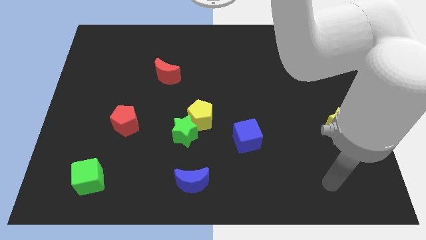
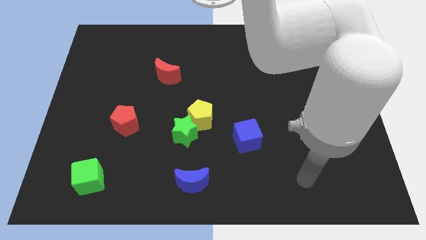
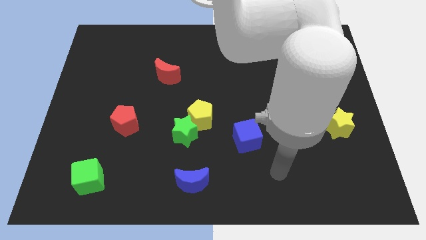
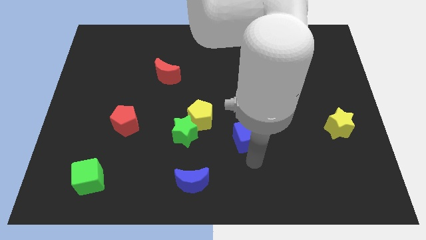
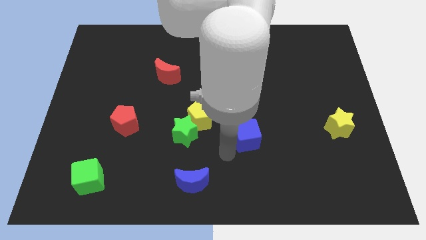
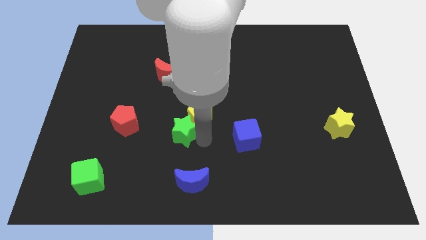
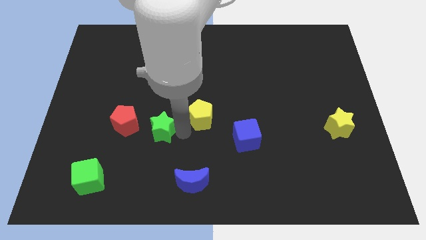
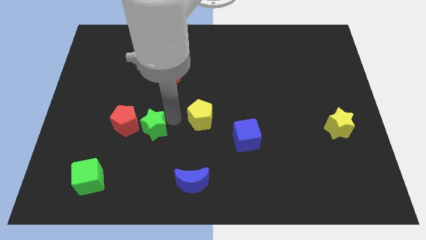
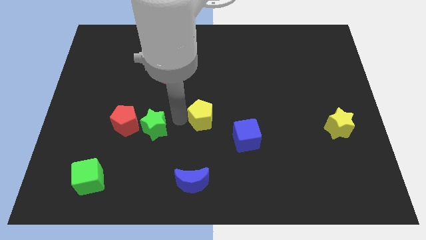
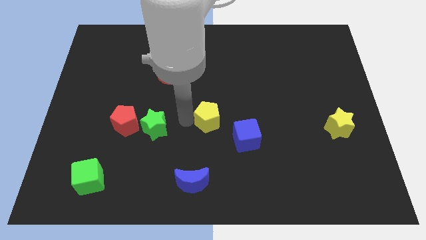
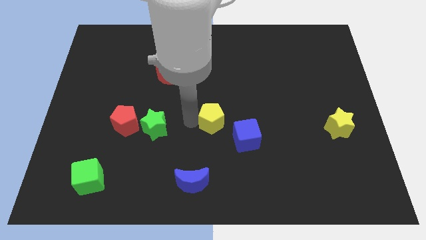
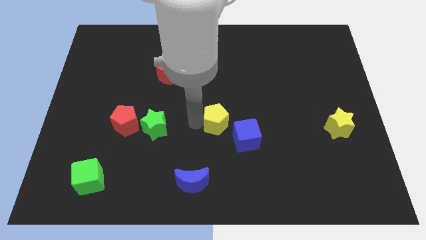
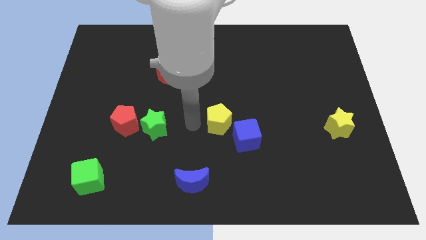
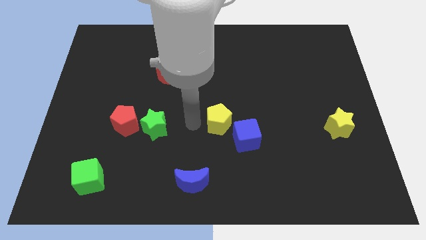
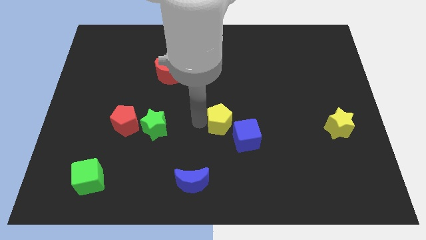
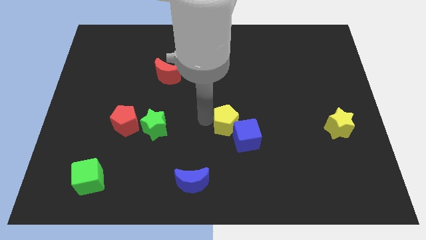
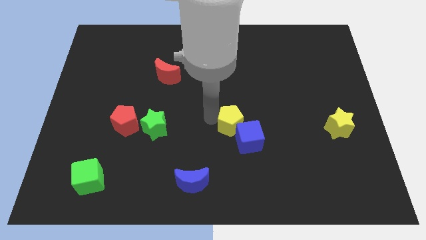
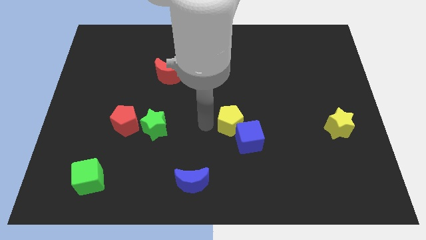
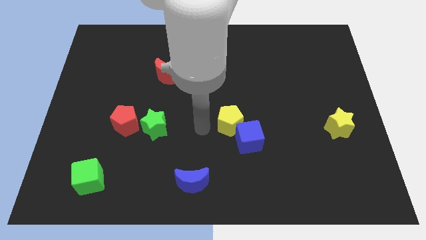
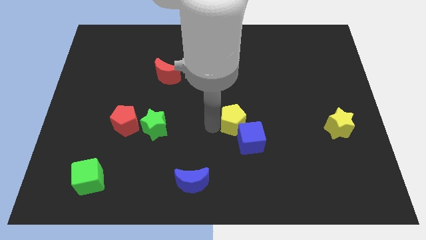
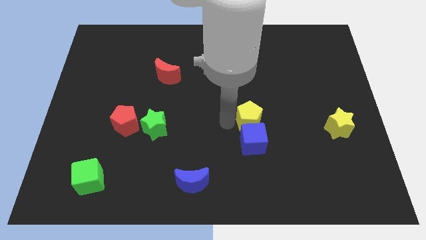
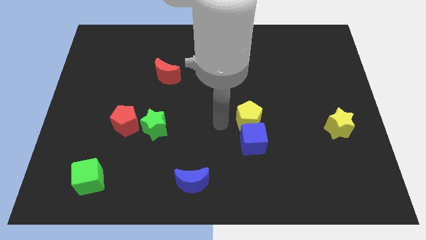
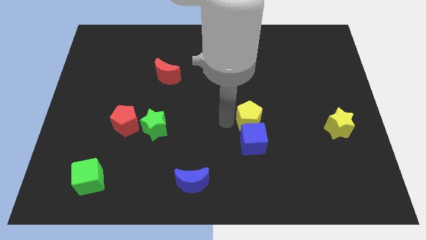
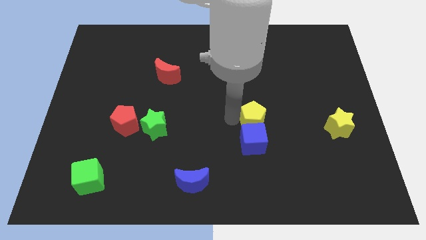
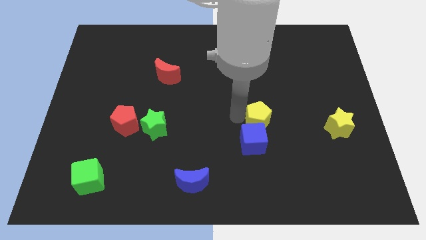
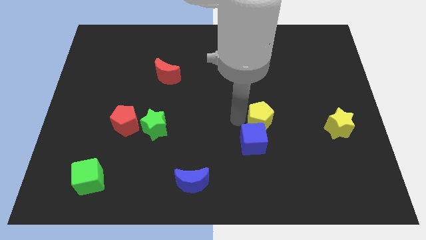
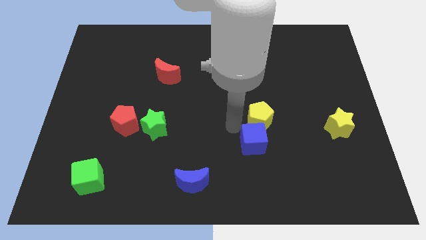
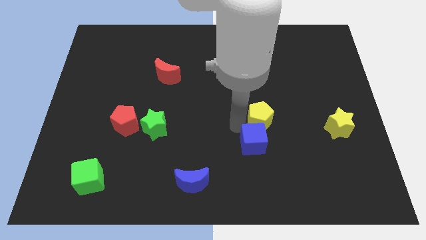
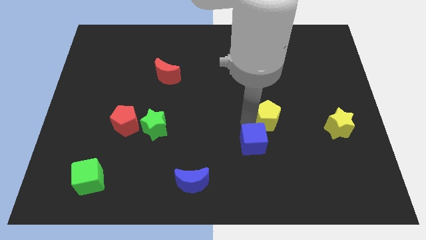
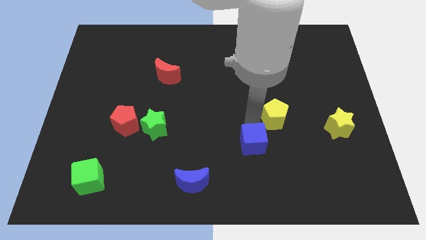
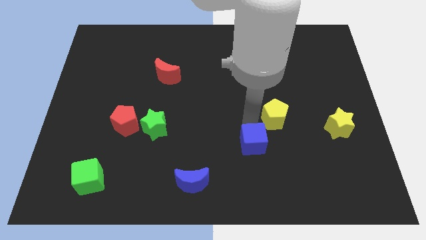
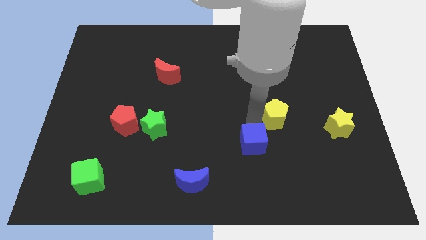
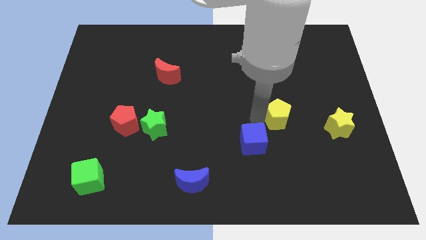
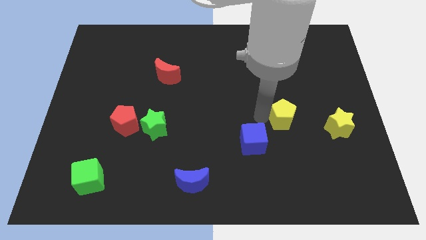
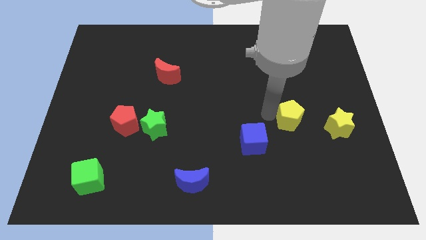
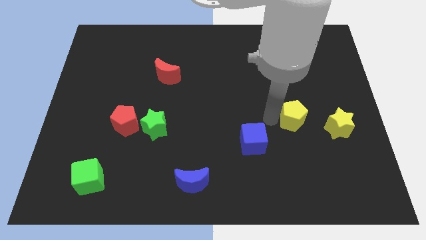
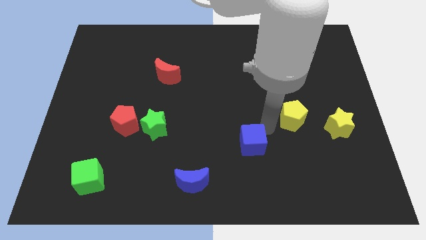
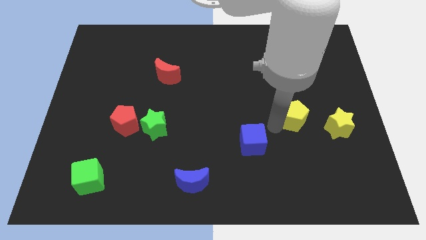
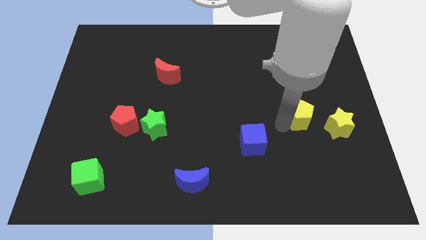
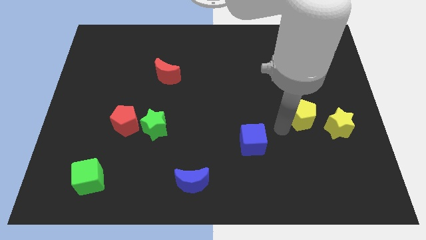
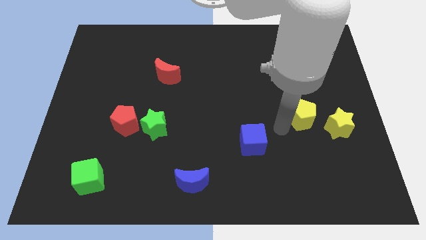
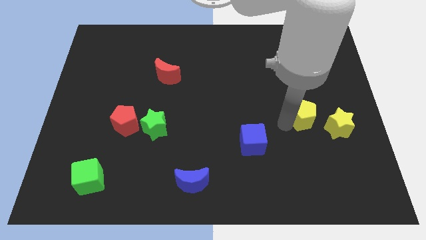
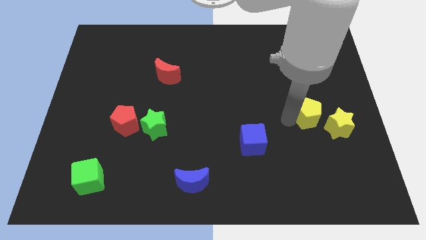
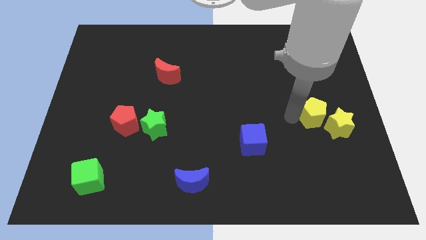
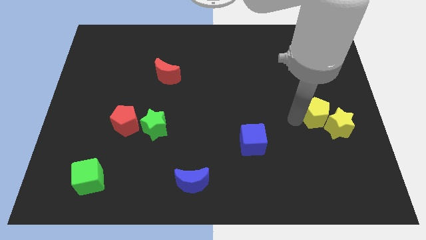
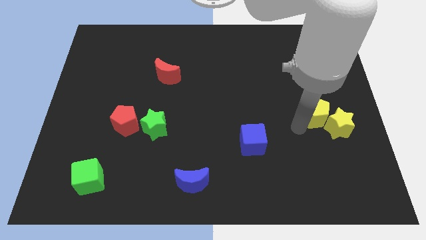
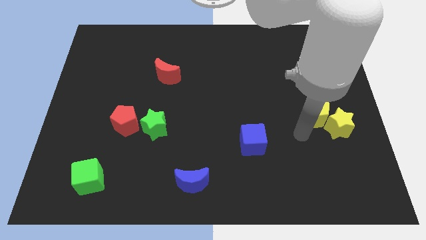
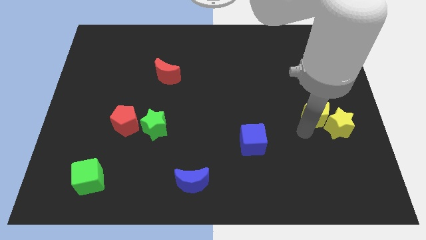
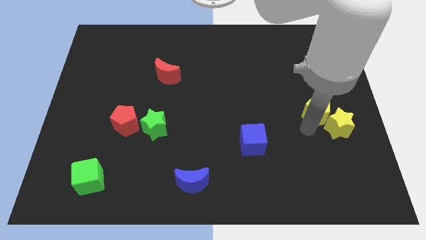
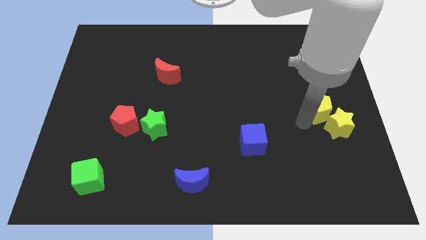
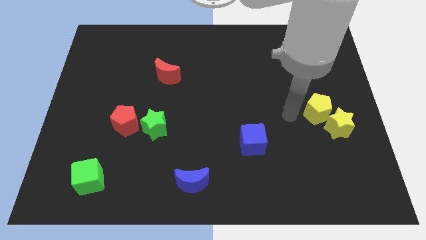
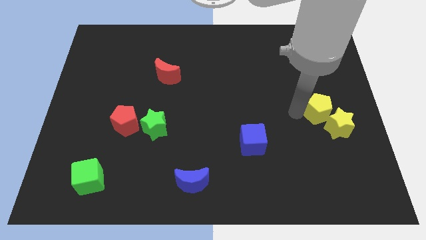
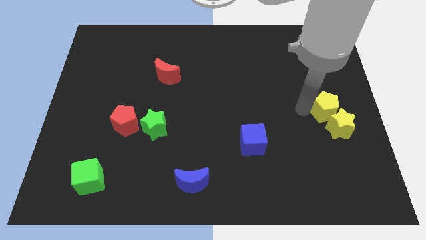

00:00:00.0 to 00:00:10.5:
slide the yellow pentagon to the right side of the board
